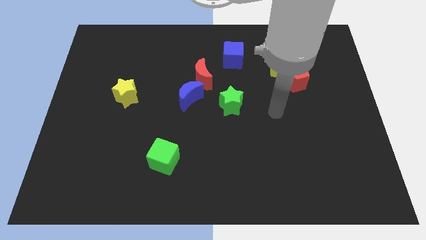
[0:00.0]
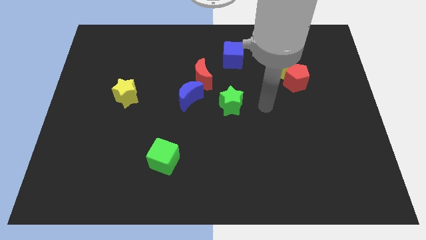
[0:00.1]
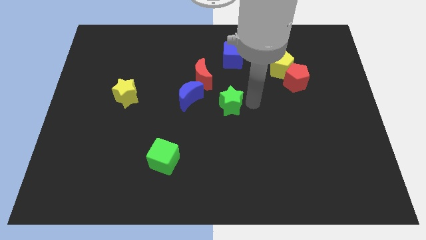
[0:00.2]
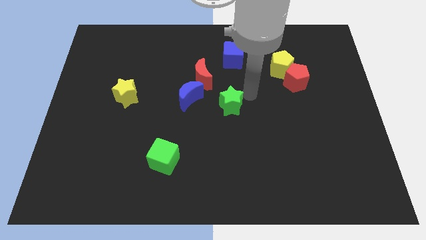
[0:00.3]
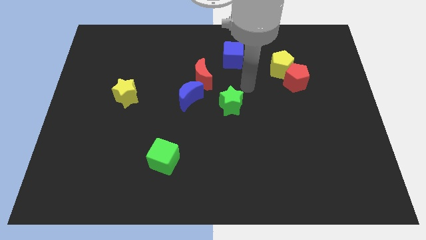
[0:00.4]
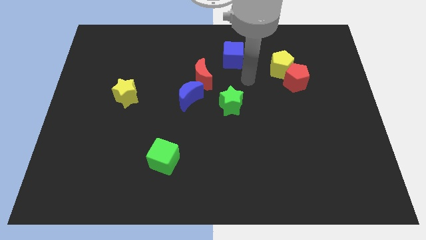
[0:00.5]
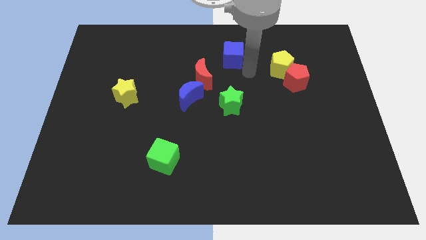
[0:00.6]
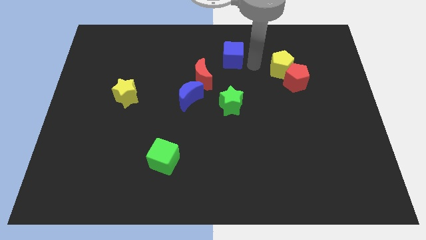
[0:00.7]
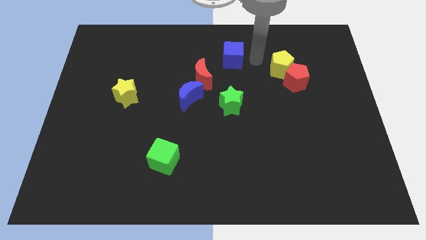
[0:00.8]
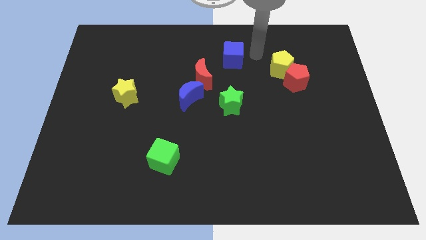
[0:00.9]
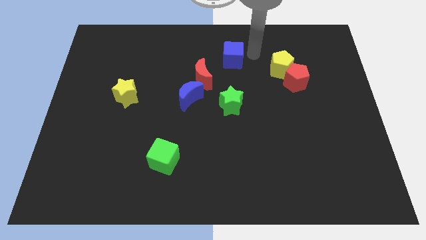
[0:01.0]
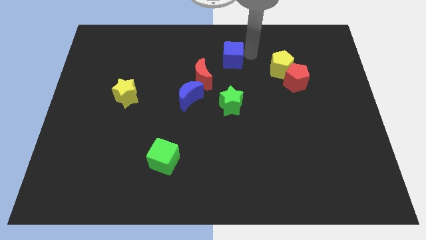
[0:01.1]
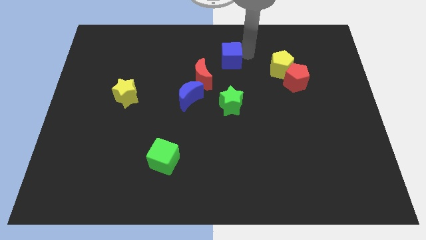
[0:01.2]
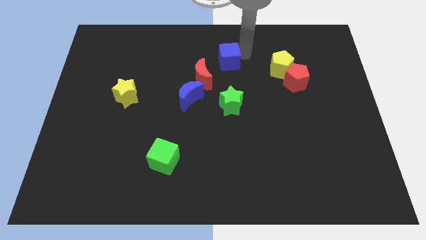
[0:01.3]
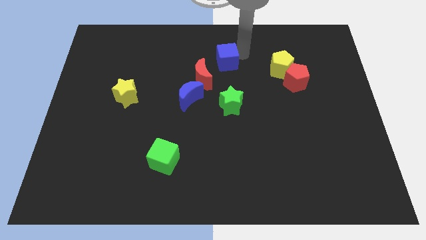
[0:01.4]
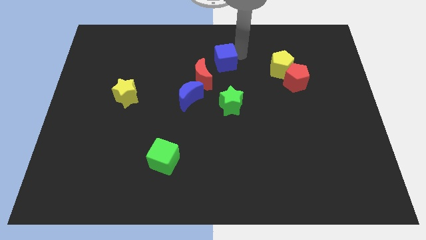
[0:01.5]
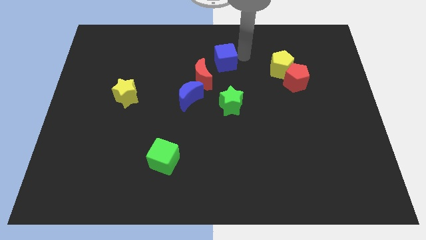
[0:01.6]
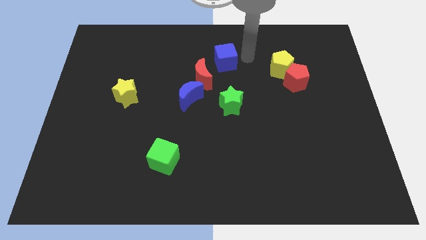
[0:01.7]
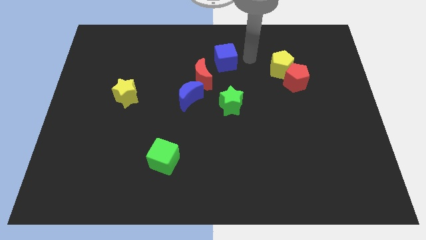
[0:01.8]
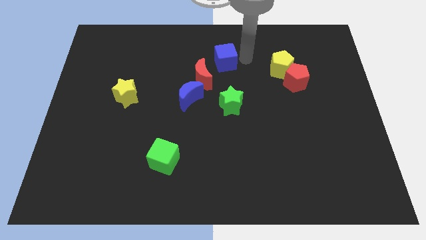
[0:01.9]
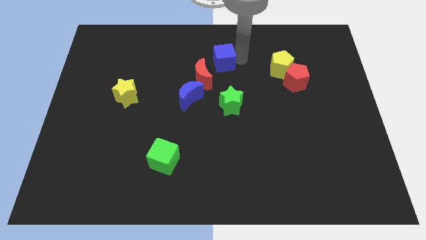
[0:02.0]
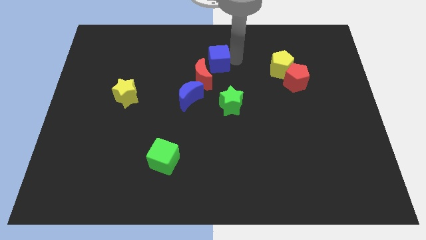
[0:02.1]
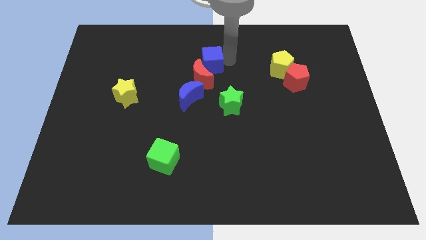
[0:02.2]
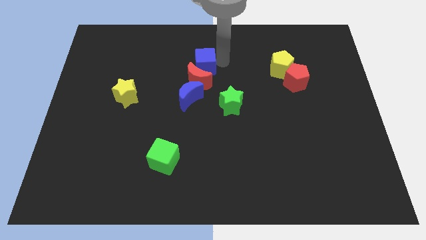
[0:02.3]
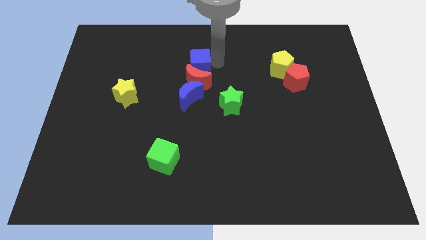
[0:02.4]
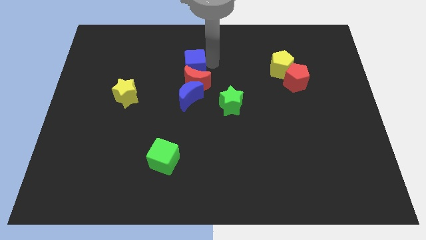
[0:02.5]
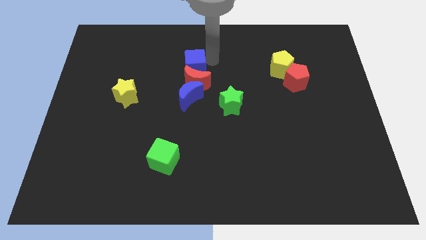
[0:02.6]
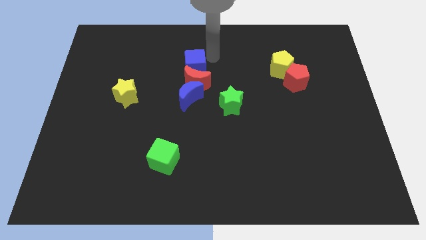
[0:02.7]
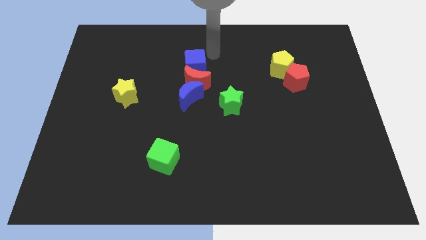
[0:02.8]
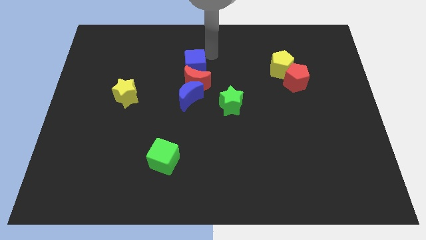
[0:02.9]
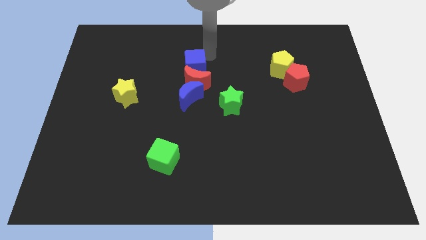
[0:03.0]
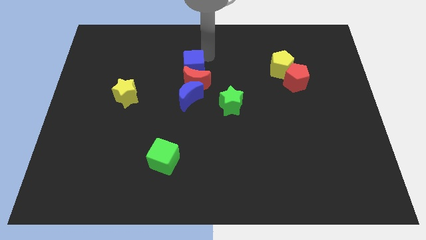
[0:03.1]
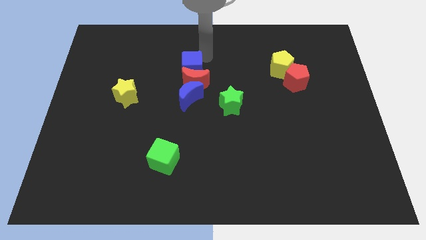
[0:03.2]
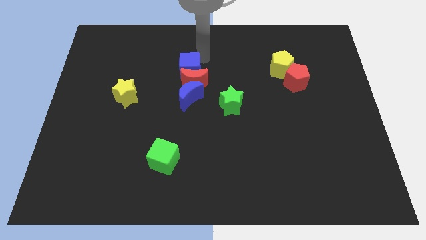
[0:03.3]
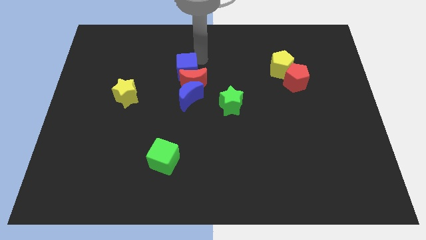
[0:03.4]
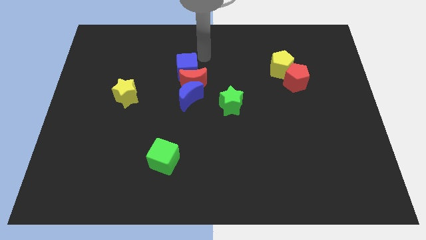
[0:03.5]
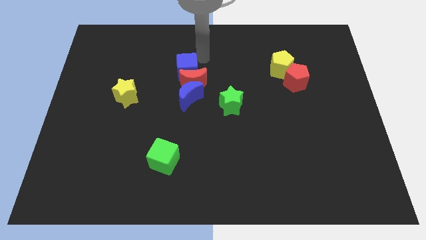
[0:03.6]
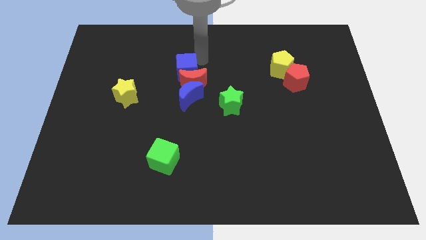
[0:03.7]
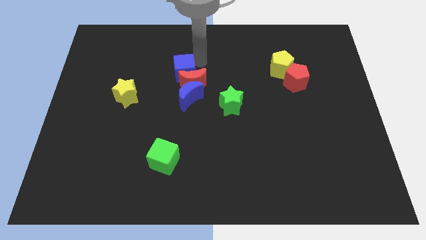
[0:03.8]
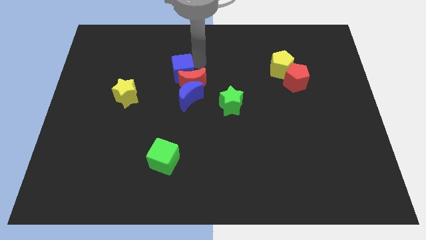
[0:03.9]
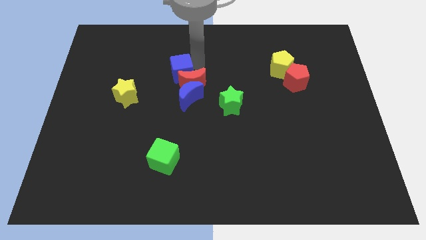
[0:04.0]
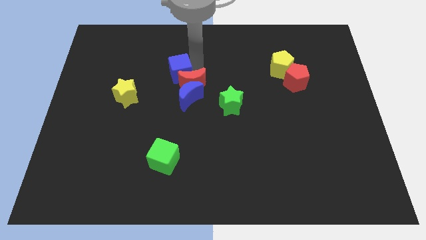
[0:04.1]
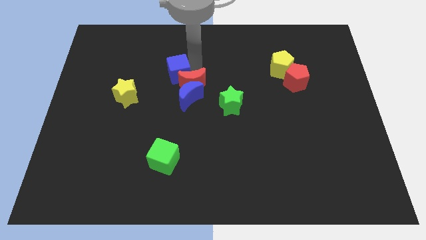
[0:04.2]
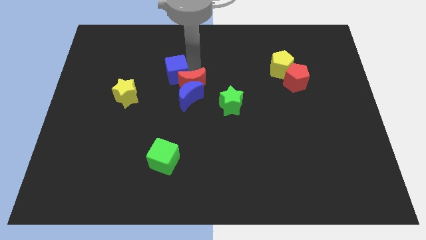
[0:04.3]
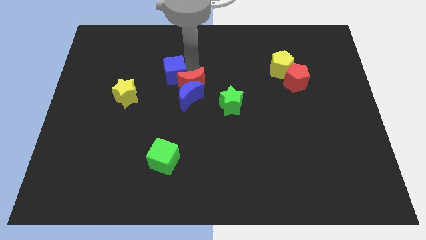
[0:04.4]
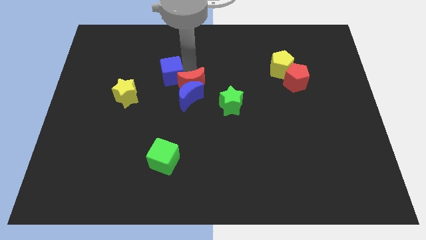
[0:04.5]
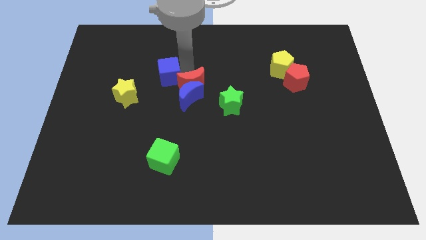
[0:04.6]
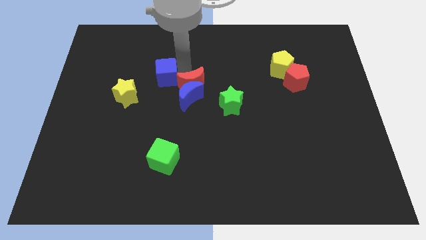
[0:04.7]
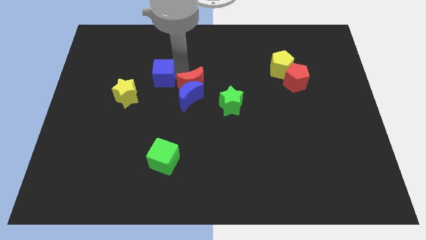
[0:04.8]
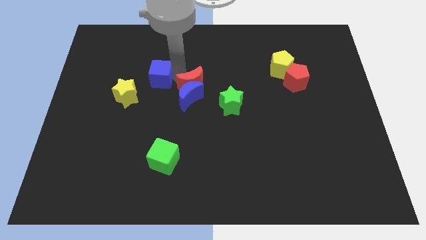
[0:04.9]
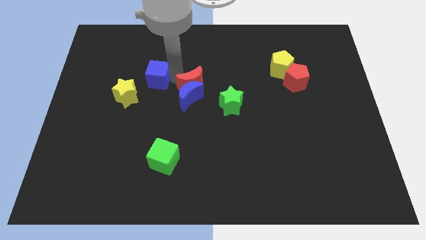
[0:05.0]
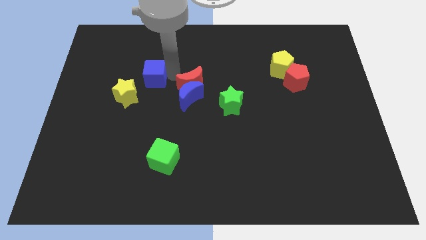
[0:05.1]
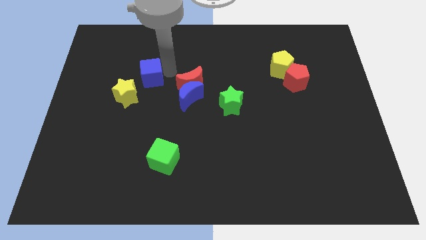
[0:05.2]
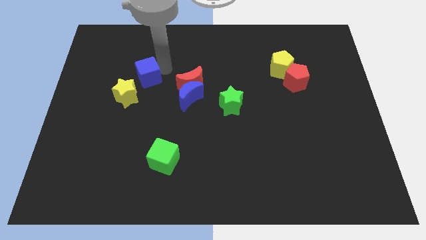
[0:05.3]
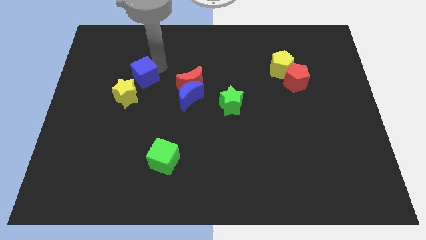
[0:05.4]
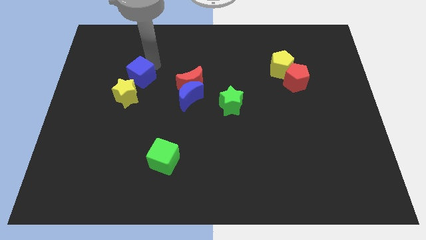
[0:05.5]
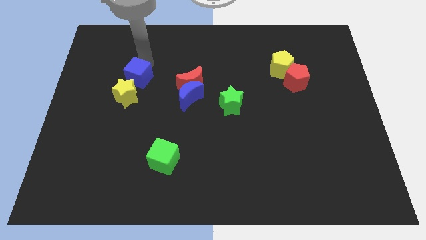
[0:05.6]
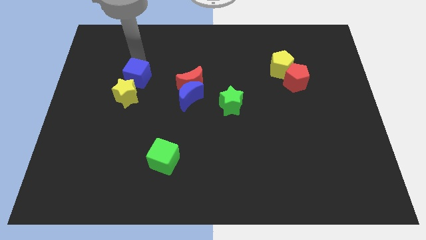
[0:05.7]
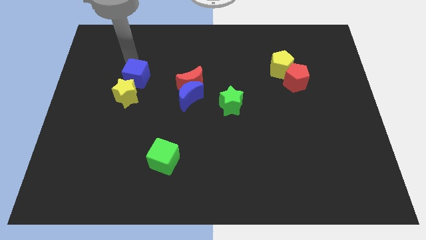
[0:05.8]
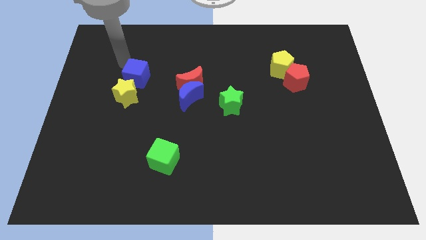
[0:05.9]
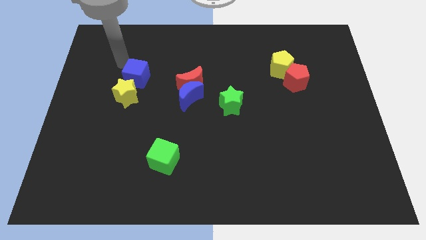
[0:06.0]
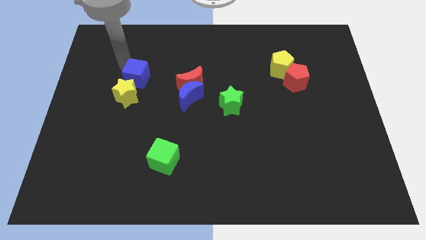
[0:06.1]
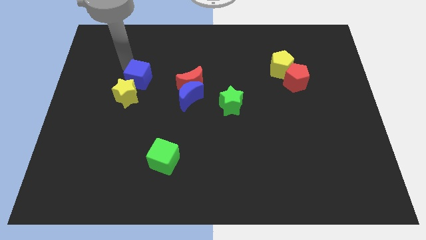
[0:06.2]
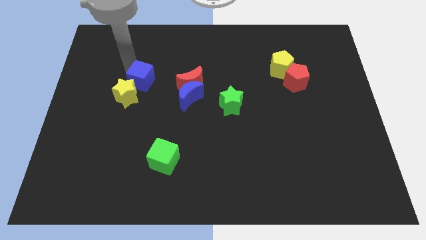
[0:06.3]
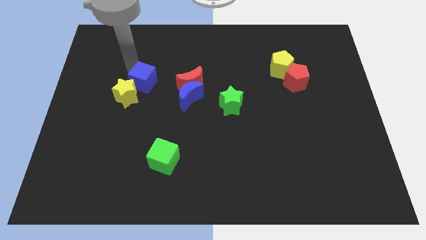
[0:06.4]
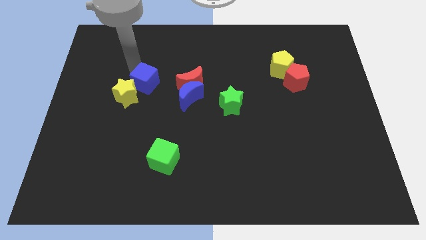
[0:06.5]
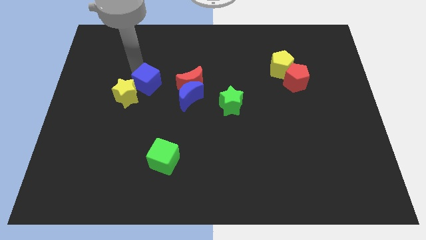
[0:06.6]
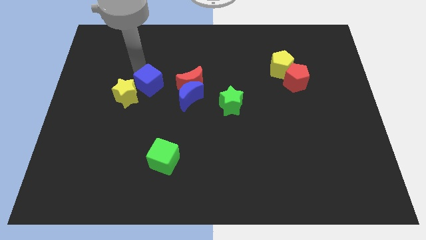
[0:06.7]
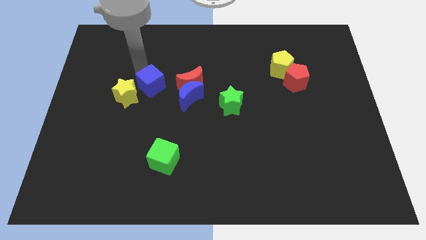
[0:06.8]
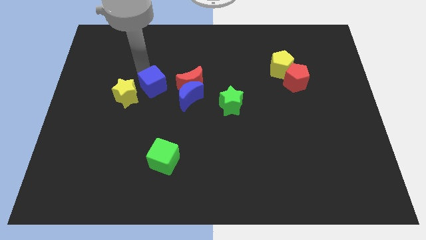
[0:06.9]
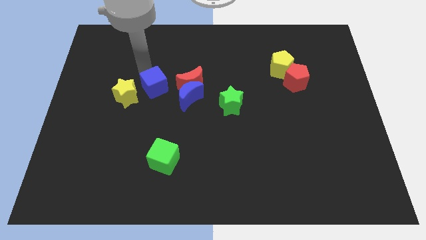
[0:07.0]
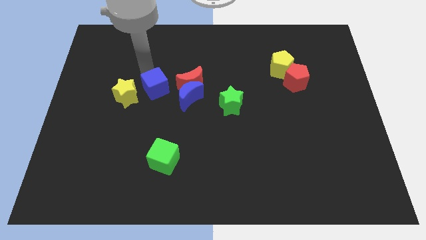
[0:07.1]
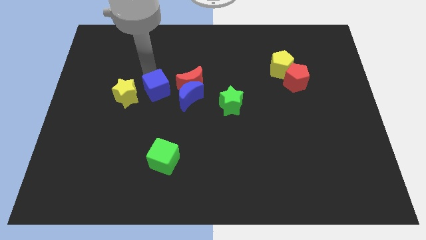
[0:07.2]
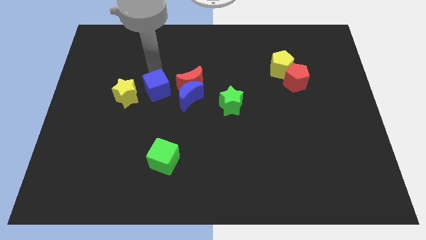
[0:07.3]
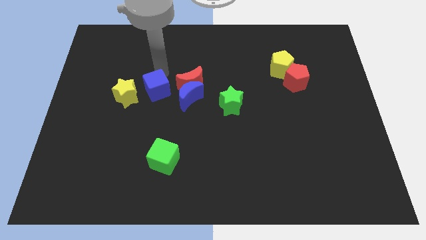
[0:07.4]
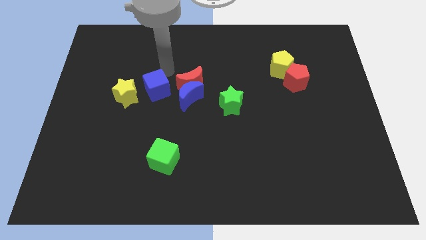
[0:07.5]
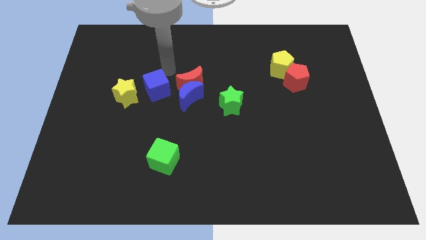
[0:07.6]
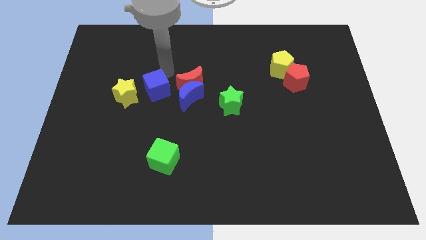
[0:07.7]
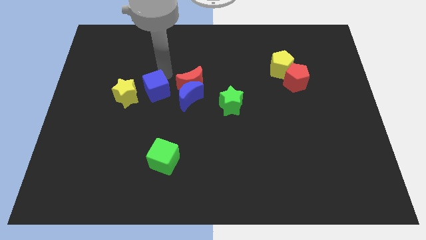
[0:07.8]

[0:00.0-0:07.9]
push the blue cube downwards and left
